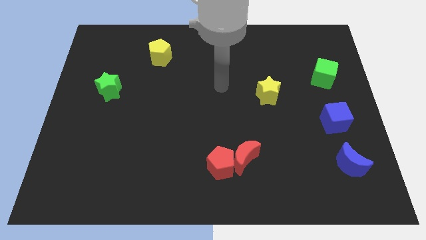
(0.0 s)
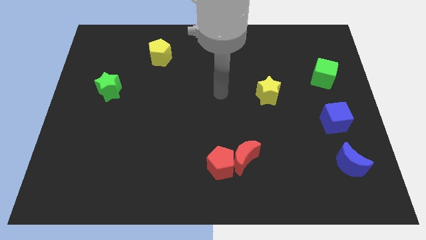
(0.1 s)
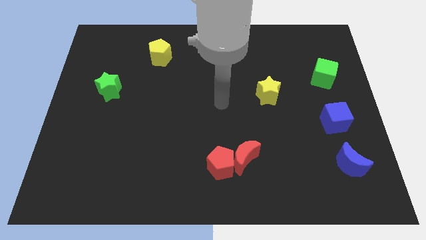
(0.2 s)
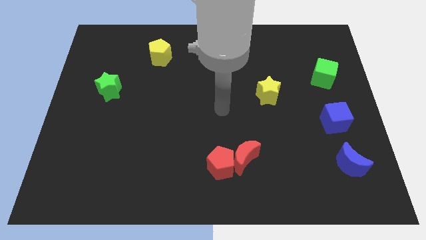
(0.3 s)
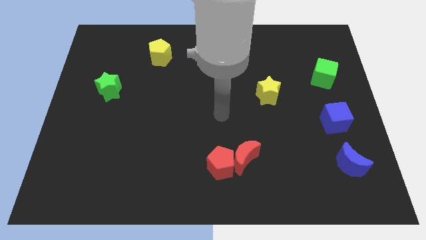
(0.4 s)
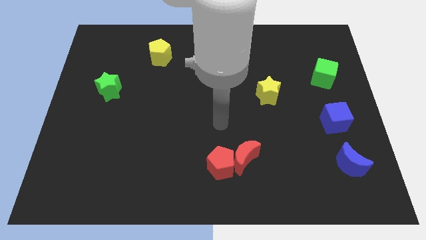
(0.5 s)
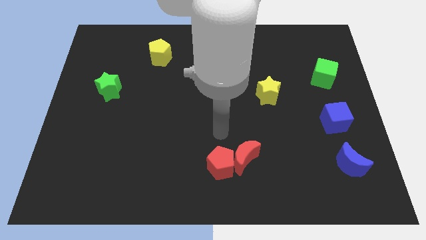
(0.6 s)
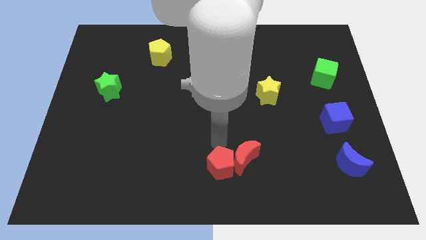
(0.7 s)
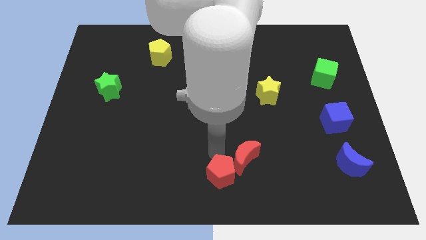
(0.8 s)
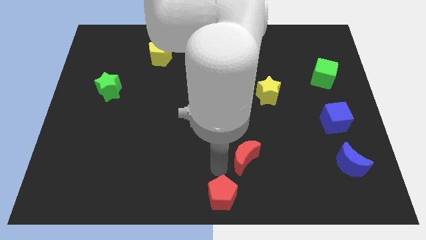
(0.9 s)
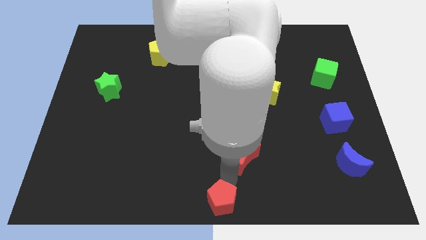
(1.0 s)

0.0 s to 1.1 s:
separate the red moon from the red pentagon

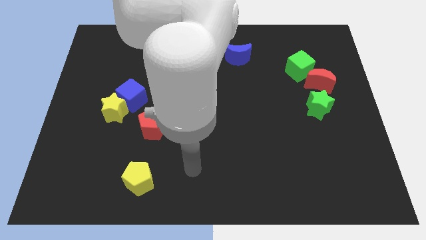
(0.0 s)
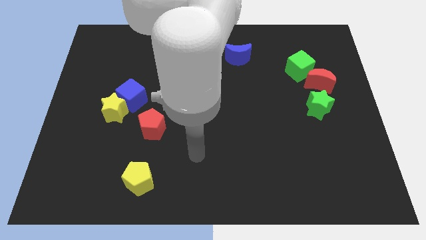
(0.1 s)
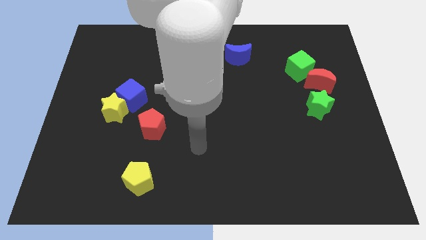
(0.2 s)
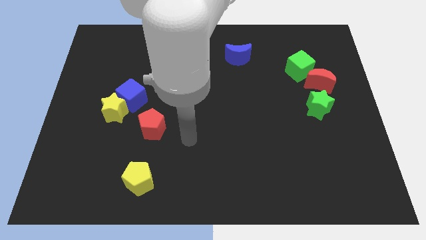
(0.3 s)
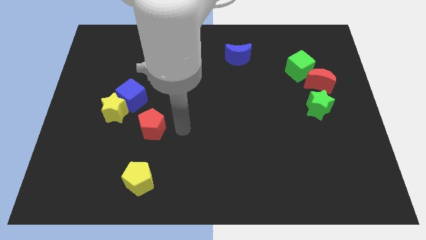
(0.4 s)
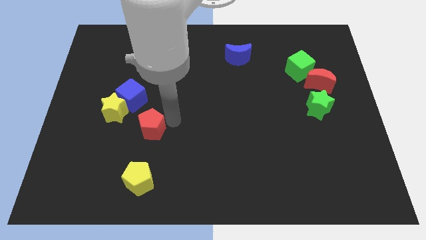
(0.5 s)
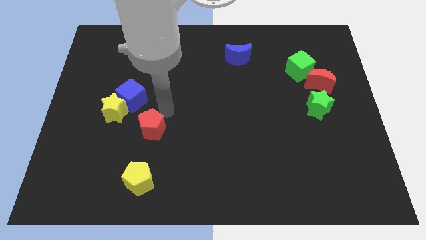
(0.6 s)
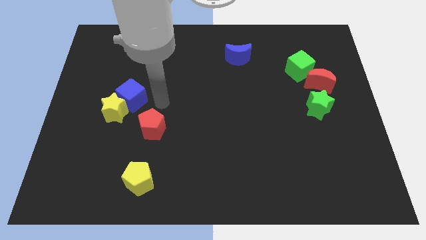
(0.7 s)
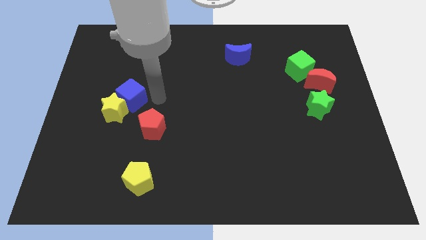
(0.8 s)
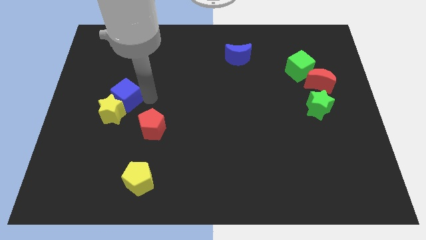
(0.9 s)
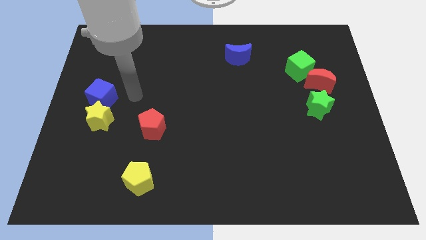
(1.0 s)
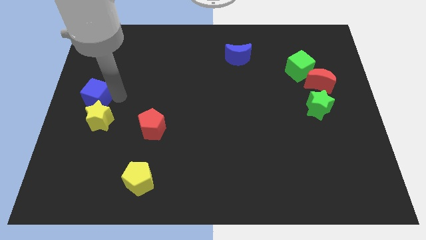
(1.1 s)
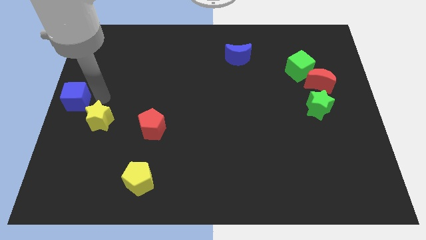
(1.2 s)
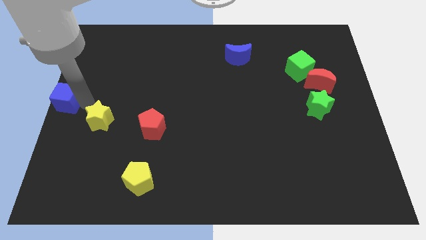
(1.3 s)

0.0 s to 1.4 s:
pull the yellow star apart from the blue cube

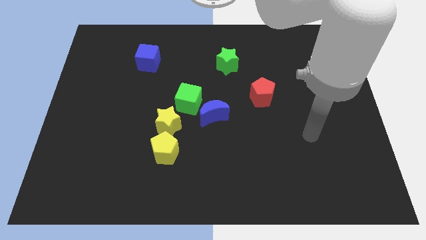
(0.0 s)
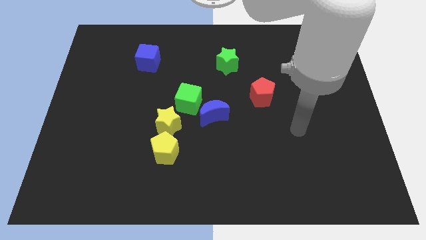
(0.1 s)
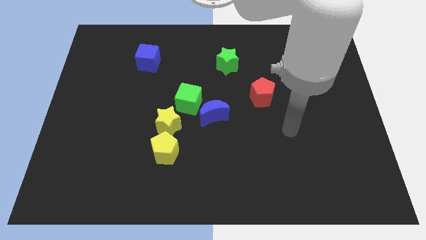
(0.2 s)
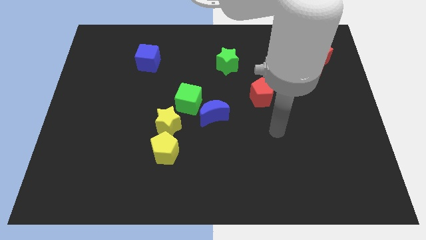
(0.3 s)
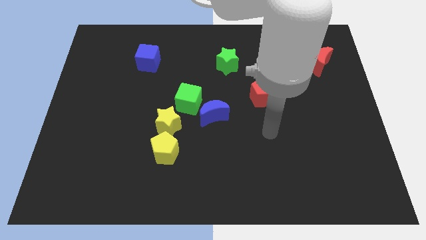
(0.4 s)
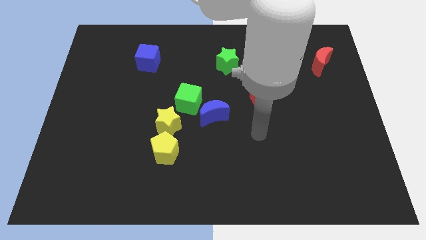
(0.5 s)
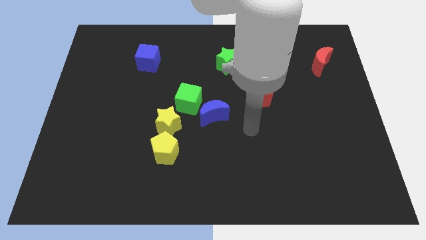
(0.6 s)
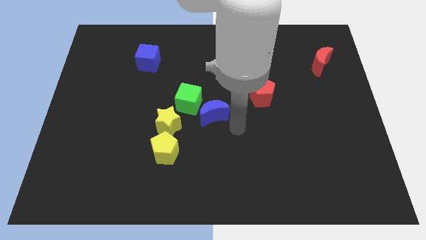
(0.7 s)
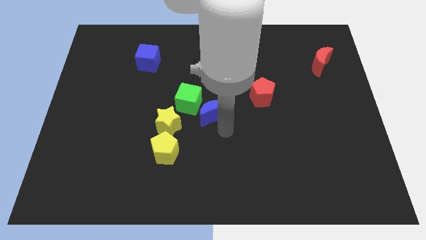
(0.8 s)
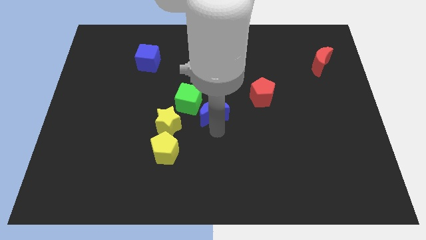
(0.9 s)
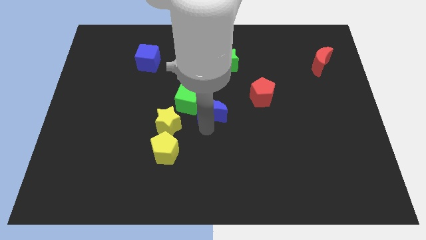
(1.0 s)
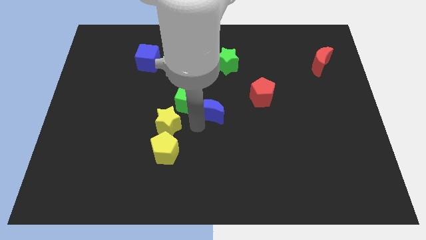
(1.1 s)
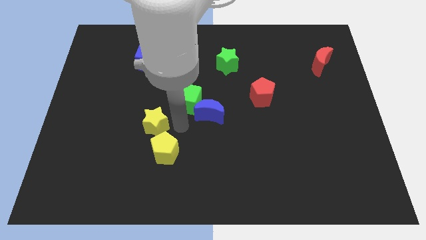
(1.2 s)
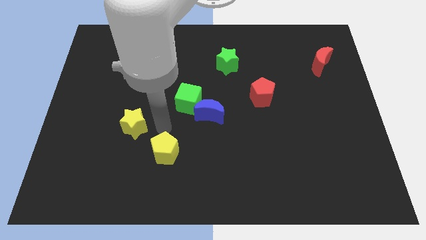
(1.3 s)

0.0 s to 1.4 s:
move the yellow pentagon away from the yellow star

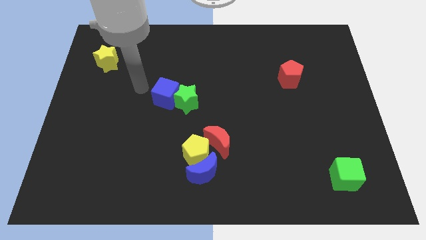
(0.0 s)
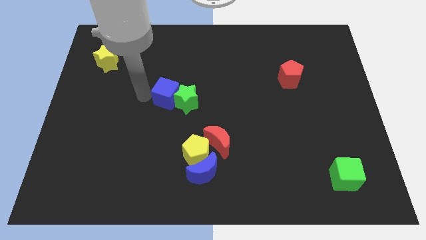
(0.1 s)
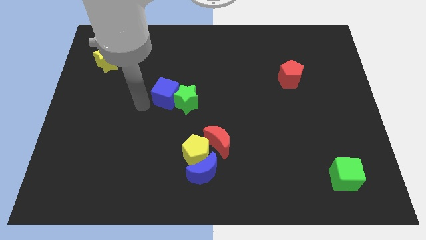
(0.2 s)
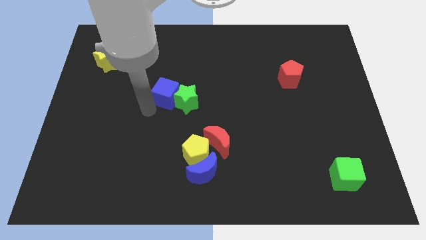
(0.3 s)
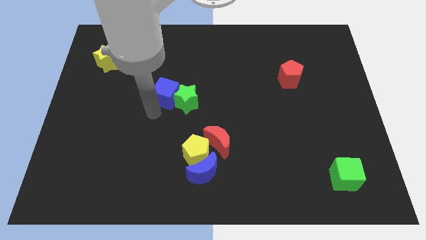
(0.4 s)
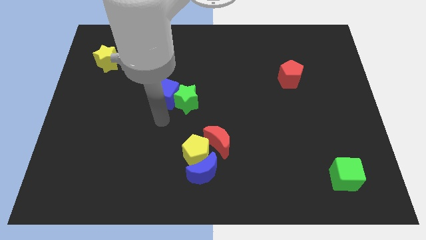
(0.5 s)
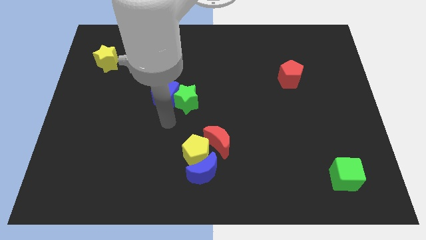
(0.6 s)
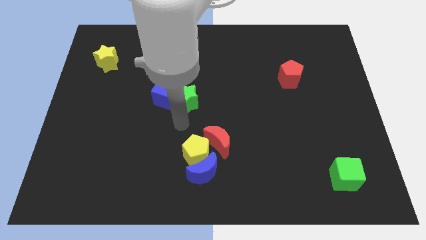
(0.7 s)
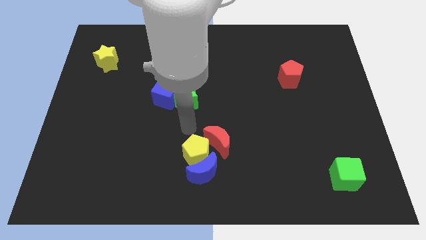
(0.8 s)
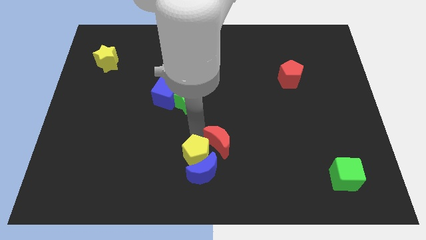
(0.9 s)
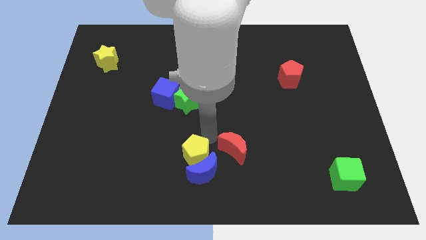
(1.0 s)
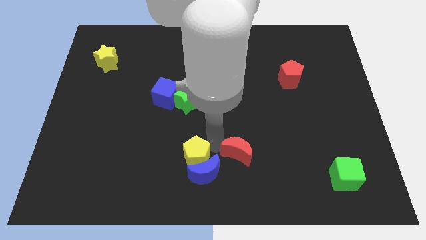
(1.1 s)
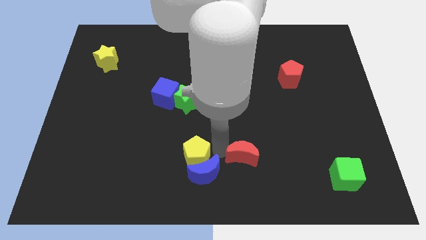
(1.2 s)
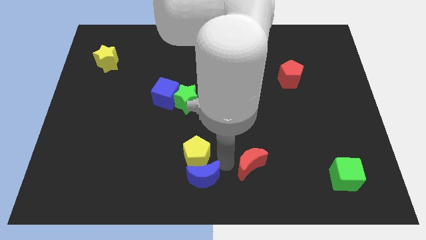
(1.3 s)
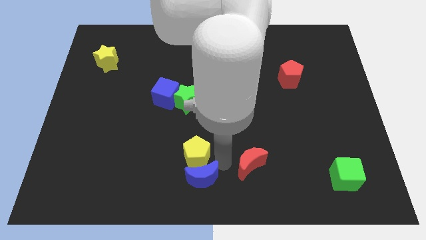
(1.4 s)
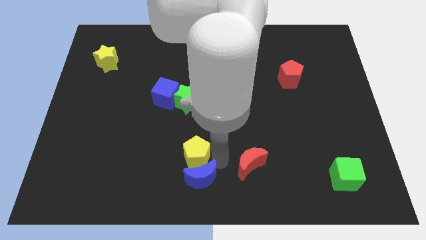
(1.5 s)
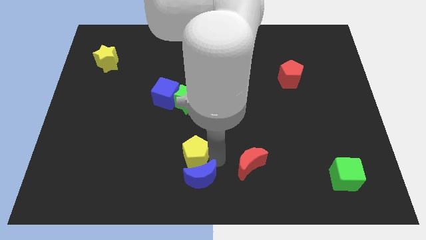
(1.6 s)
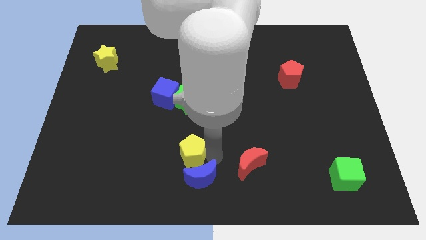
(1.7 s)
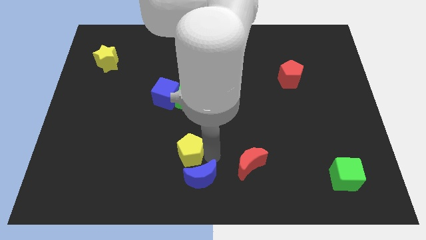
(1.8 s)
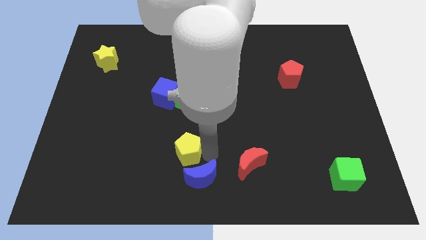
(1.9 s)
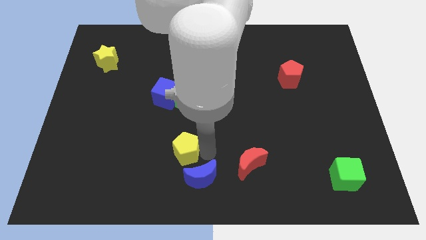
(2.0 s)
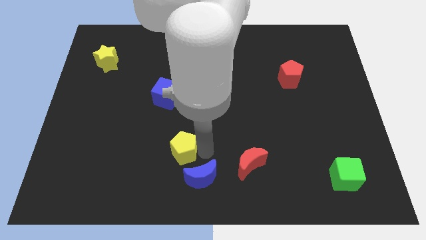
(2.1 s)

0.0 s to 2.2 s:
pull the yellow pentagon apart from the blue moon and red moon

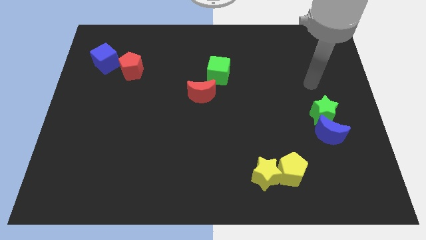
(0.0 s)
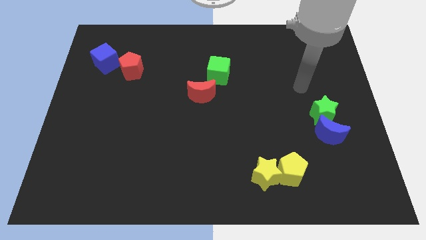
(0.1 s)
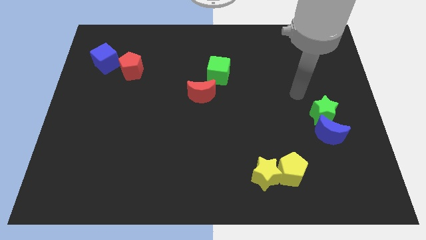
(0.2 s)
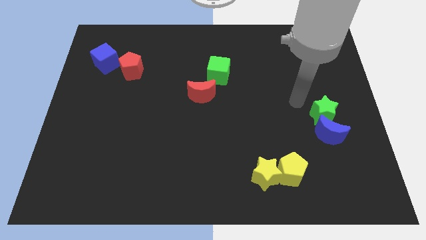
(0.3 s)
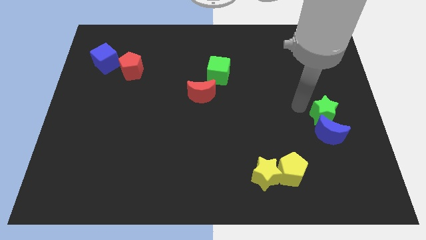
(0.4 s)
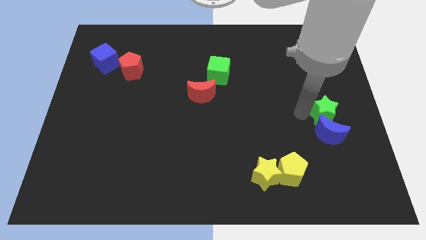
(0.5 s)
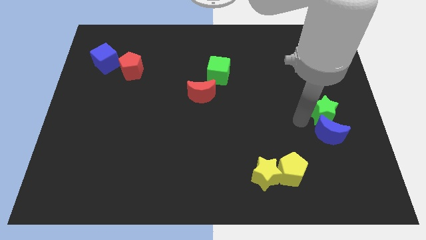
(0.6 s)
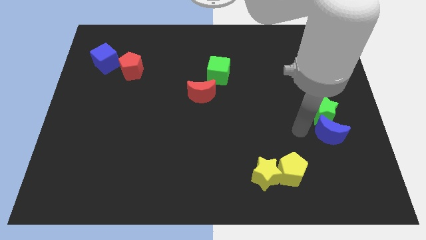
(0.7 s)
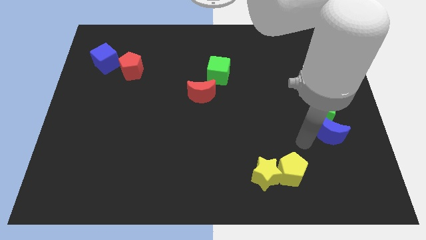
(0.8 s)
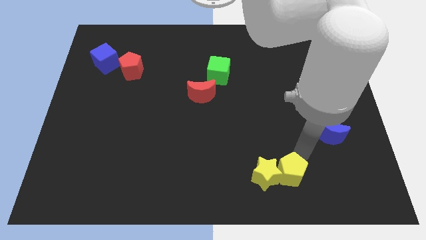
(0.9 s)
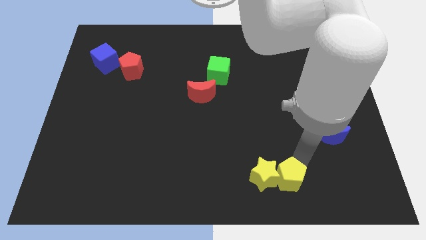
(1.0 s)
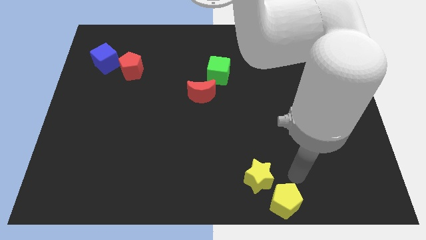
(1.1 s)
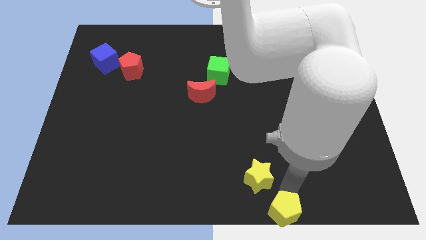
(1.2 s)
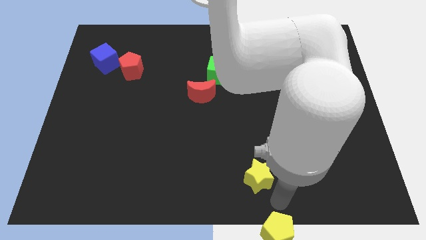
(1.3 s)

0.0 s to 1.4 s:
pull the yellow star apart from the yellow pentagon

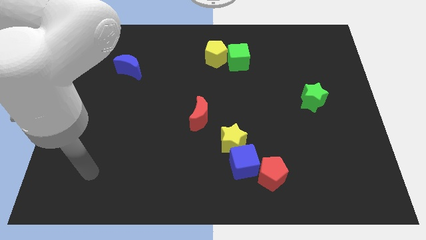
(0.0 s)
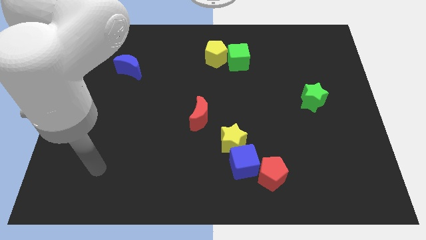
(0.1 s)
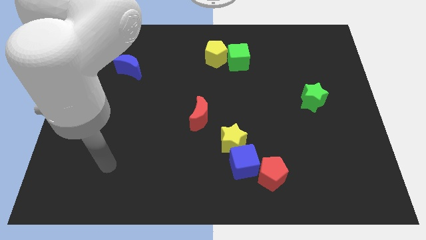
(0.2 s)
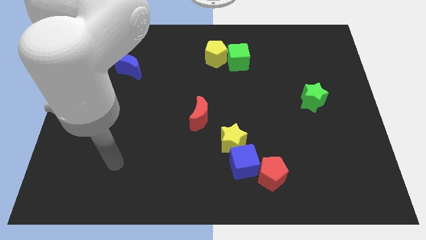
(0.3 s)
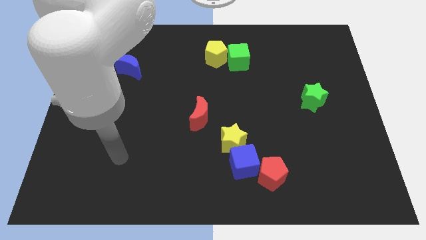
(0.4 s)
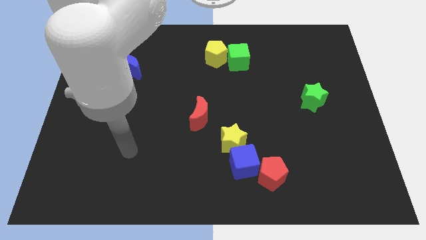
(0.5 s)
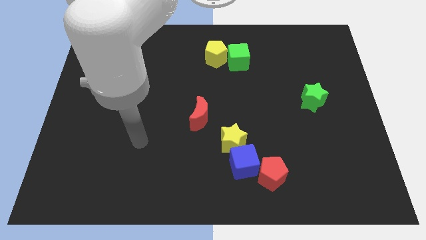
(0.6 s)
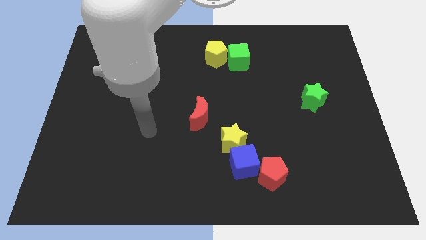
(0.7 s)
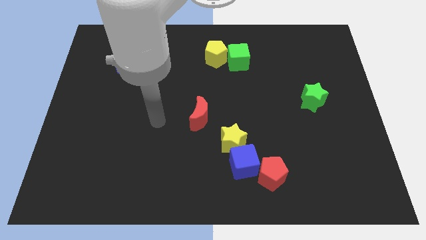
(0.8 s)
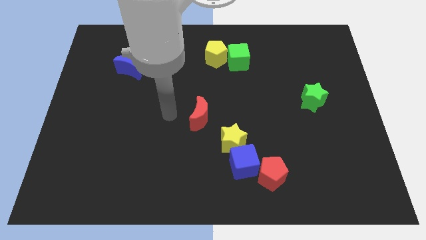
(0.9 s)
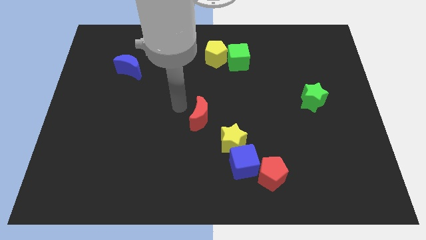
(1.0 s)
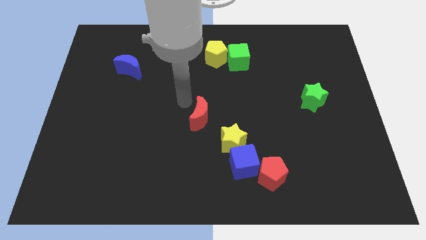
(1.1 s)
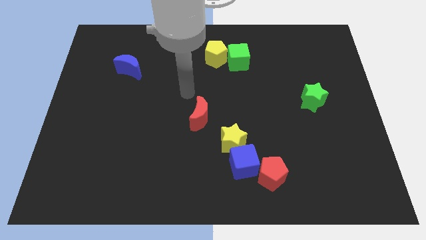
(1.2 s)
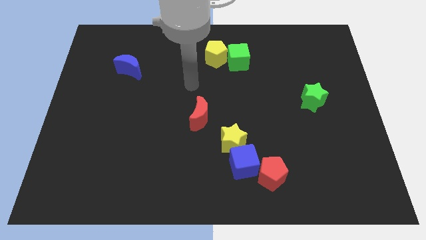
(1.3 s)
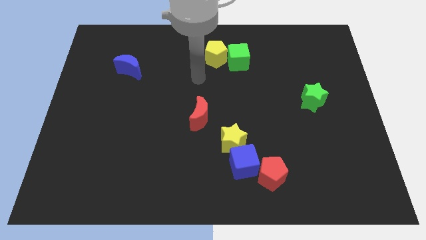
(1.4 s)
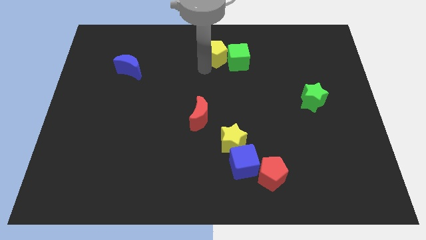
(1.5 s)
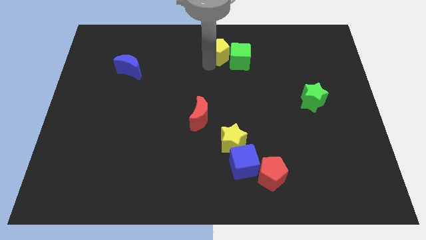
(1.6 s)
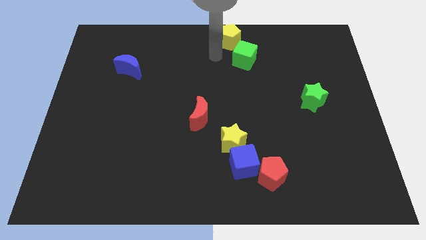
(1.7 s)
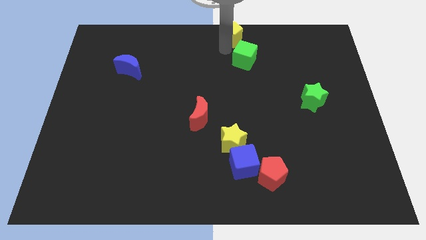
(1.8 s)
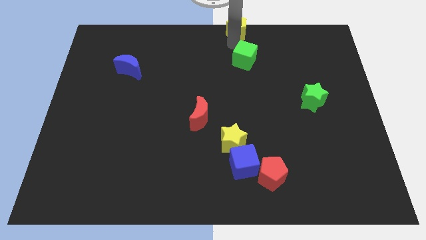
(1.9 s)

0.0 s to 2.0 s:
move the green cube away from the yellow pentagon

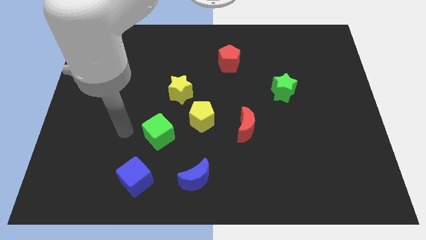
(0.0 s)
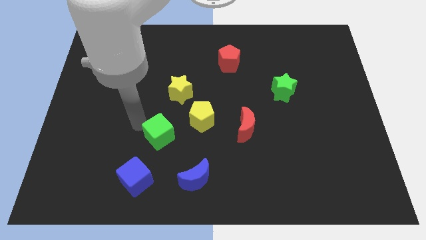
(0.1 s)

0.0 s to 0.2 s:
separate the yellow star from the yellow pentagon
